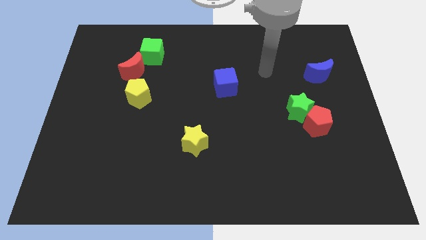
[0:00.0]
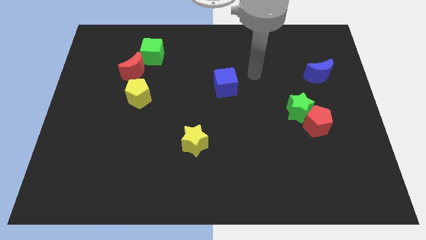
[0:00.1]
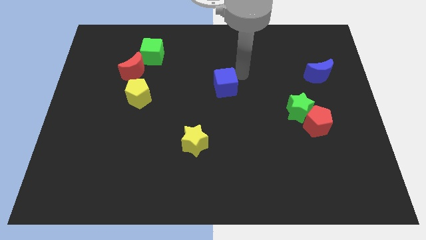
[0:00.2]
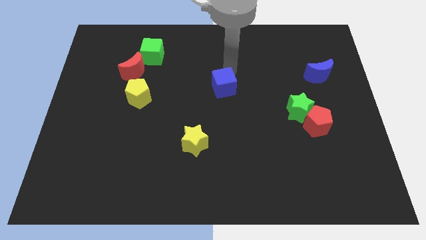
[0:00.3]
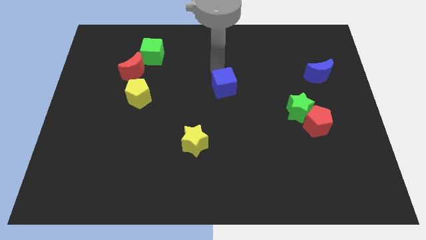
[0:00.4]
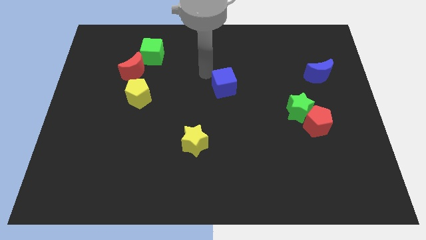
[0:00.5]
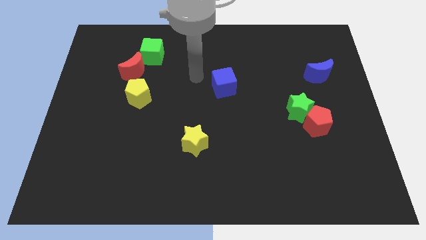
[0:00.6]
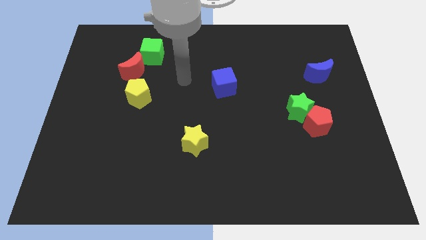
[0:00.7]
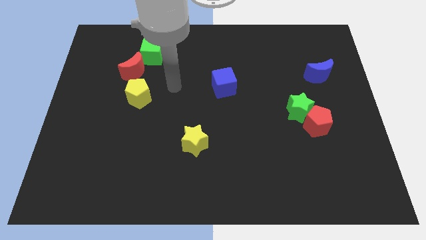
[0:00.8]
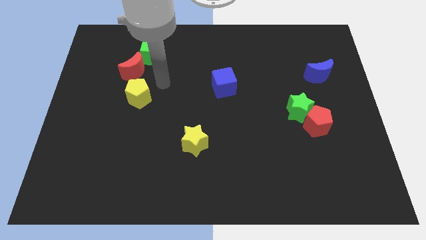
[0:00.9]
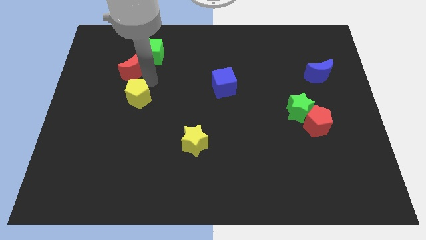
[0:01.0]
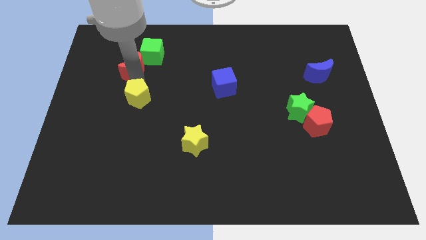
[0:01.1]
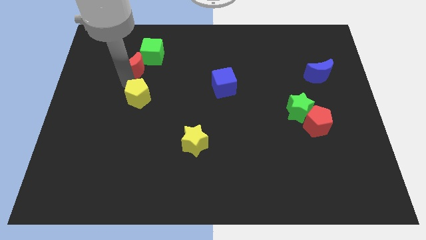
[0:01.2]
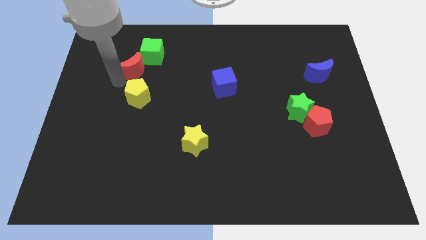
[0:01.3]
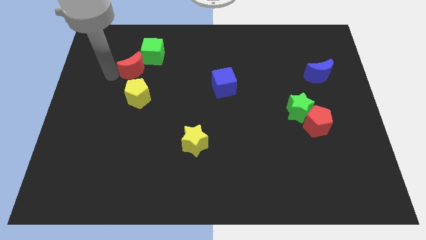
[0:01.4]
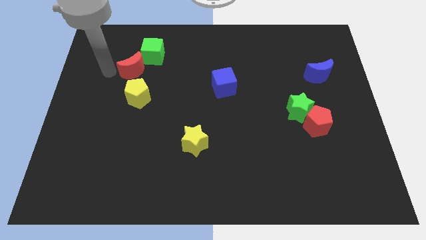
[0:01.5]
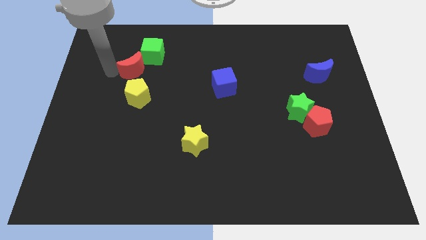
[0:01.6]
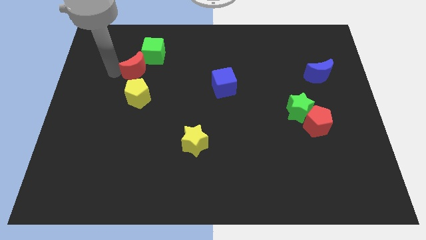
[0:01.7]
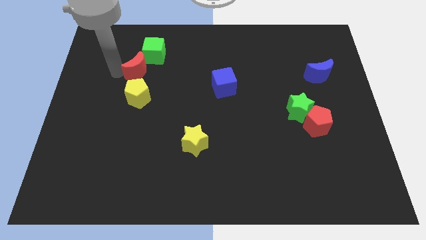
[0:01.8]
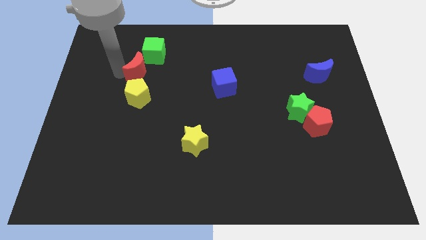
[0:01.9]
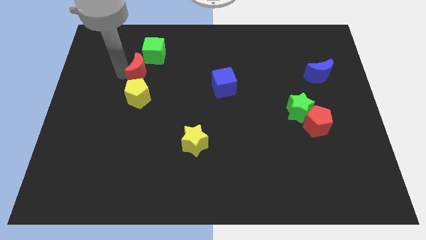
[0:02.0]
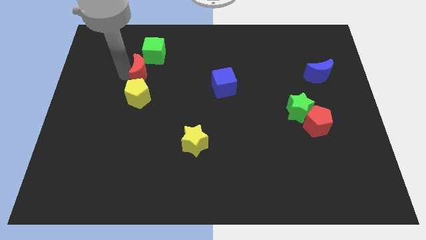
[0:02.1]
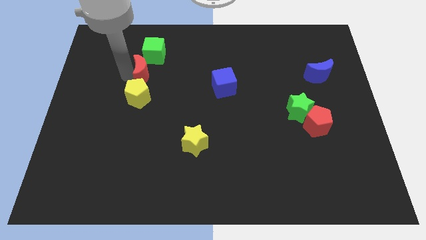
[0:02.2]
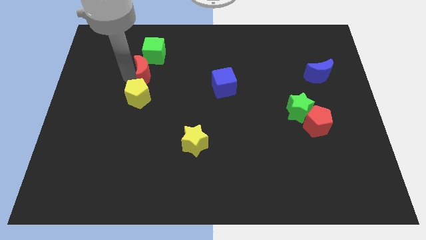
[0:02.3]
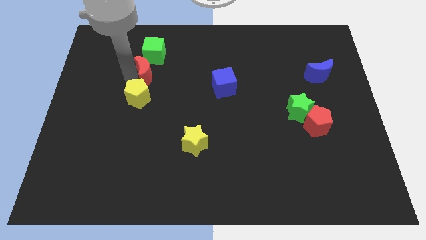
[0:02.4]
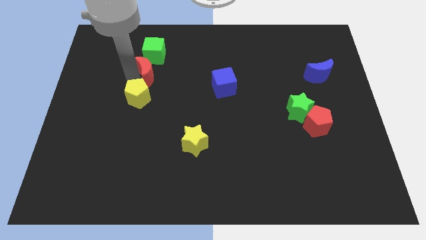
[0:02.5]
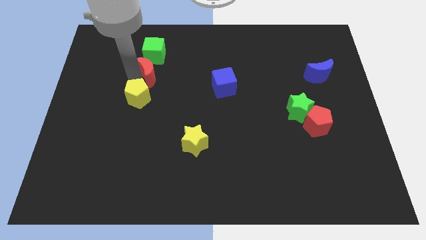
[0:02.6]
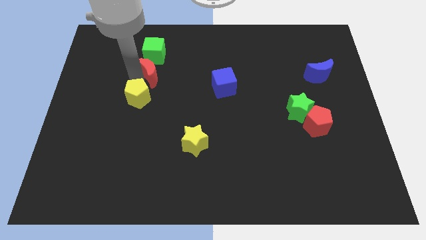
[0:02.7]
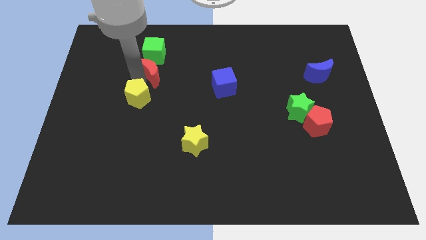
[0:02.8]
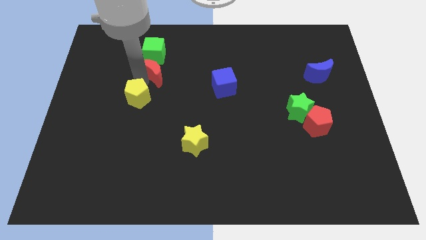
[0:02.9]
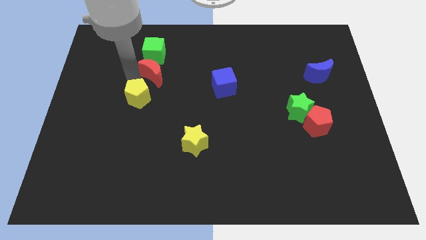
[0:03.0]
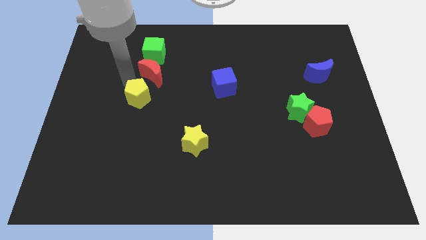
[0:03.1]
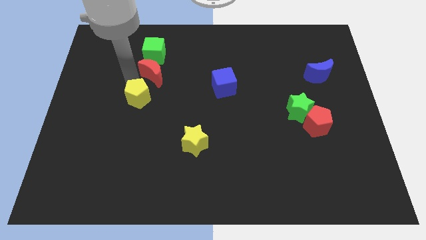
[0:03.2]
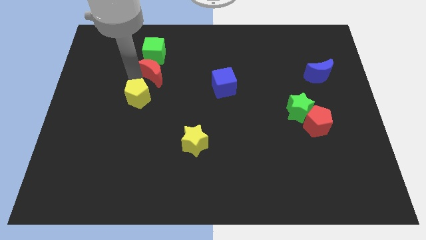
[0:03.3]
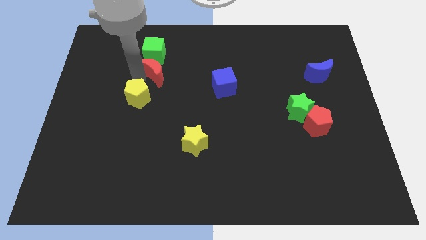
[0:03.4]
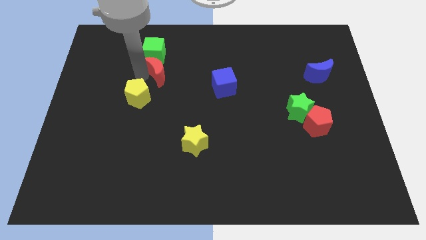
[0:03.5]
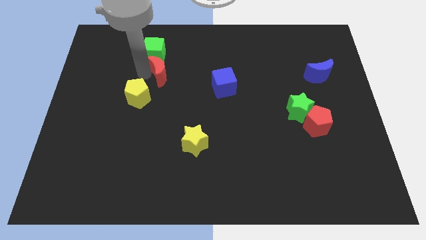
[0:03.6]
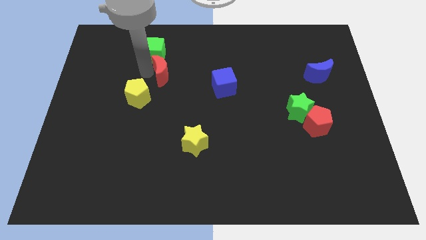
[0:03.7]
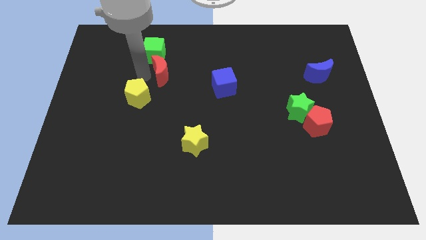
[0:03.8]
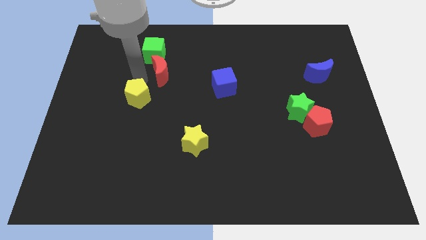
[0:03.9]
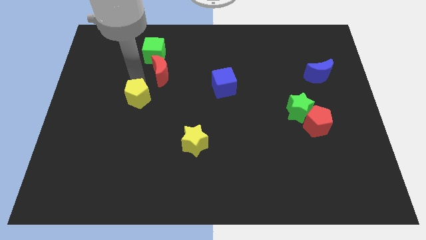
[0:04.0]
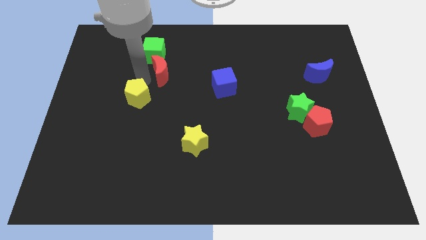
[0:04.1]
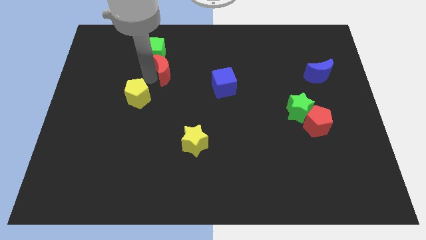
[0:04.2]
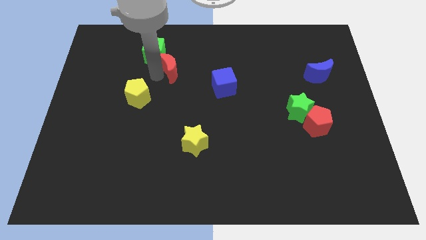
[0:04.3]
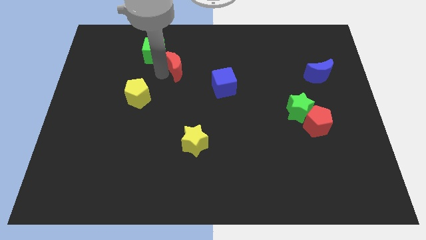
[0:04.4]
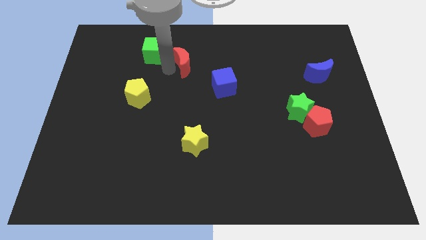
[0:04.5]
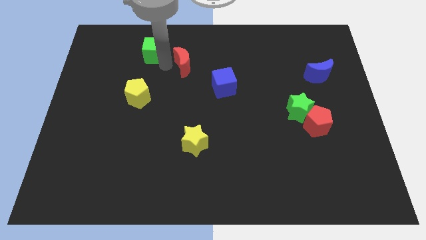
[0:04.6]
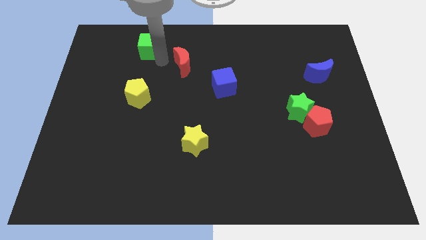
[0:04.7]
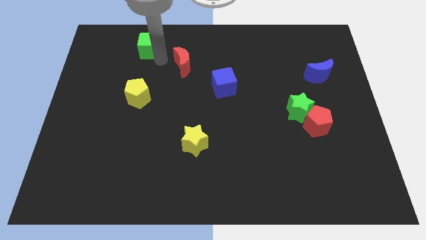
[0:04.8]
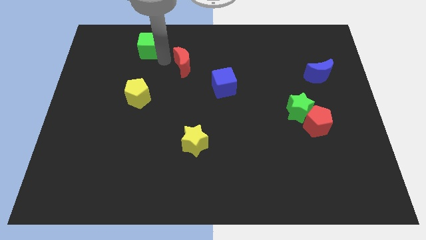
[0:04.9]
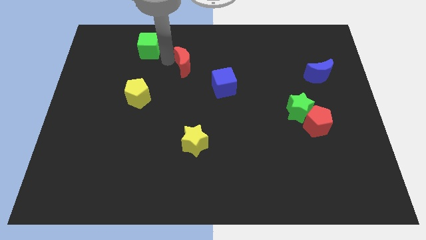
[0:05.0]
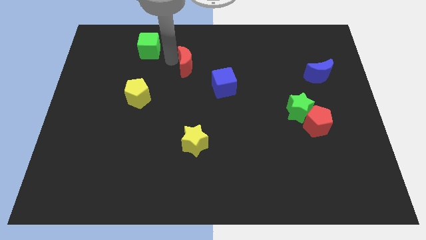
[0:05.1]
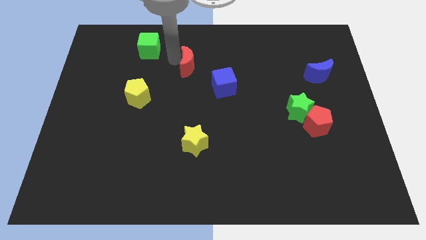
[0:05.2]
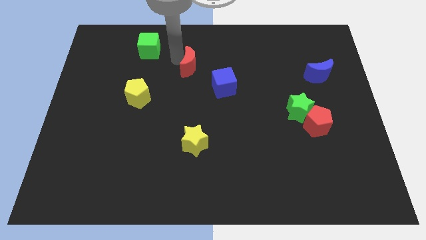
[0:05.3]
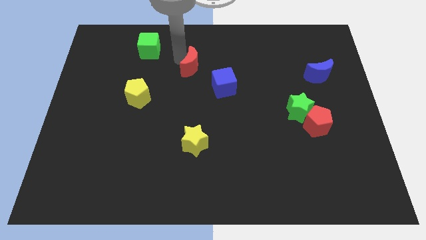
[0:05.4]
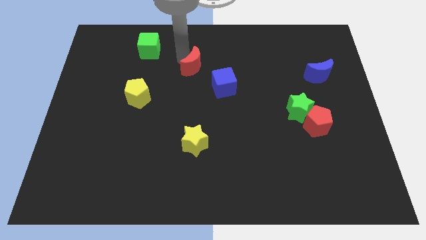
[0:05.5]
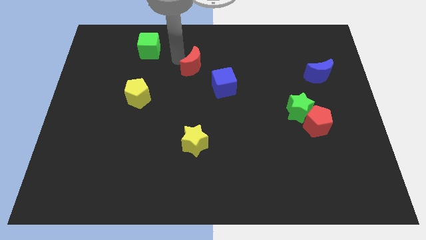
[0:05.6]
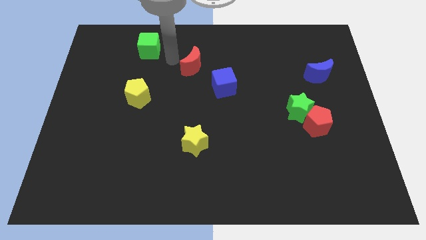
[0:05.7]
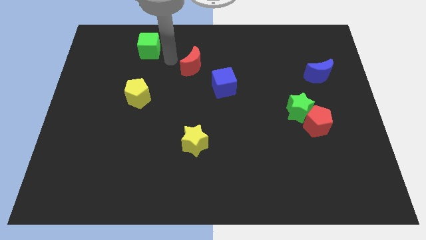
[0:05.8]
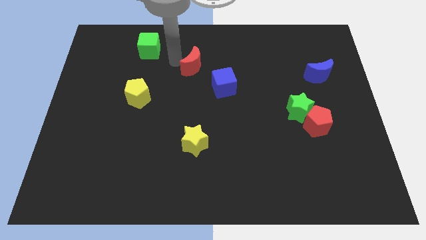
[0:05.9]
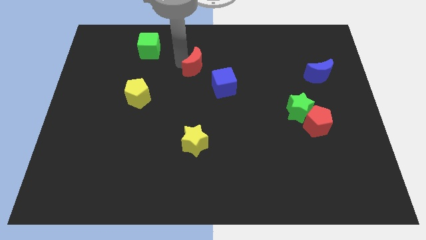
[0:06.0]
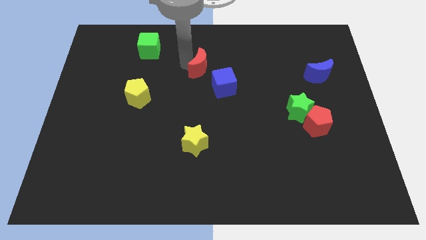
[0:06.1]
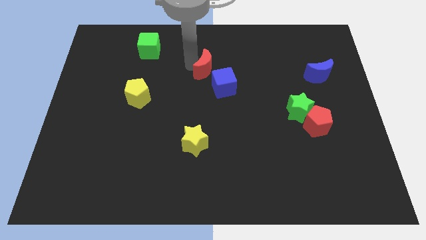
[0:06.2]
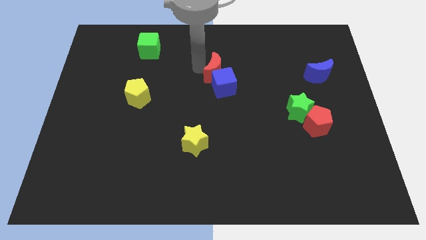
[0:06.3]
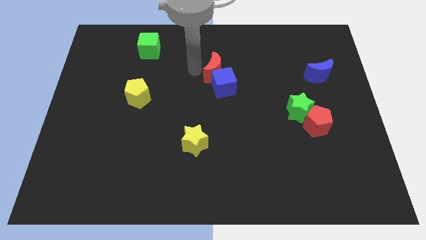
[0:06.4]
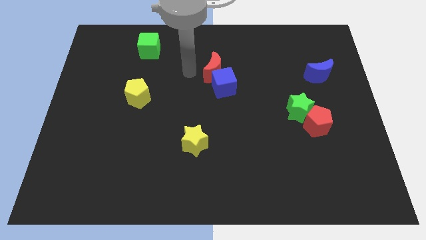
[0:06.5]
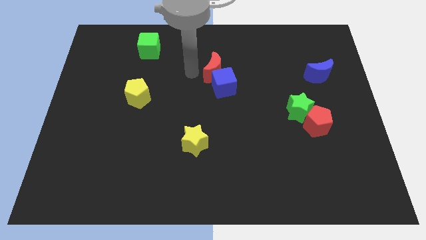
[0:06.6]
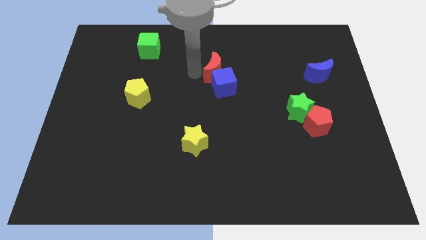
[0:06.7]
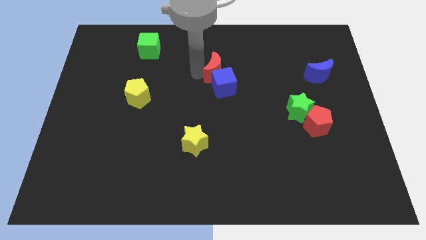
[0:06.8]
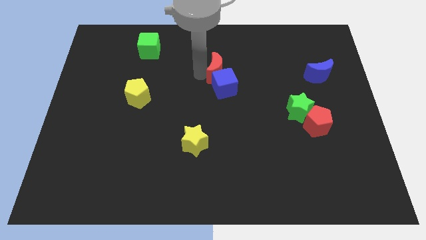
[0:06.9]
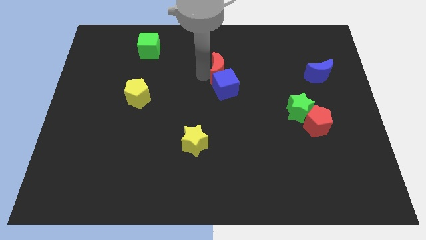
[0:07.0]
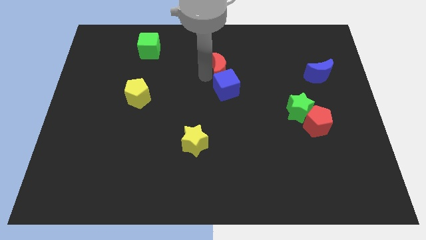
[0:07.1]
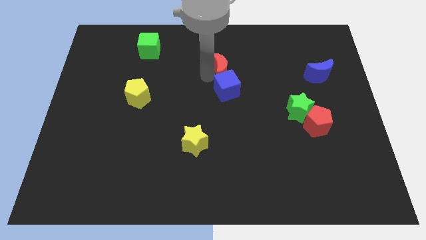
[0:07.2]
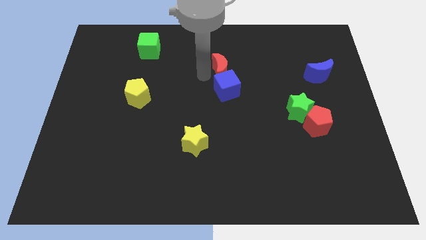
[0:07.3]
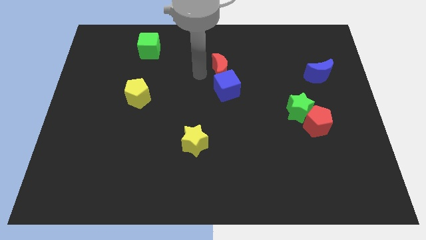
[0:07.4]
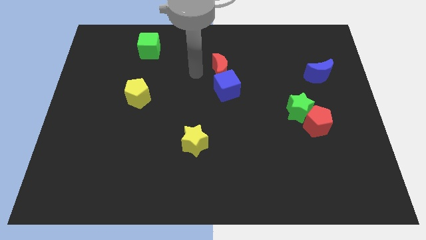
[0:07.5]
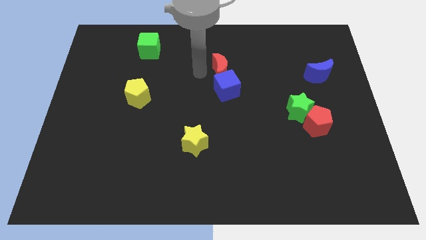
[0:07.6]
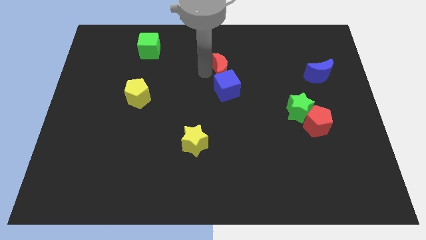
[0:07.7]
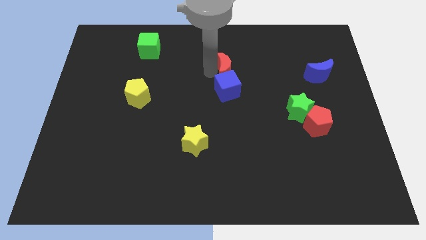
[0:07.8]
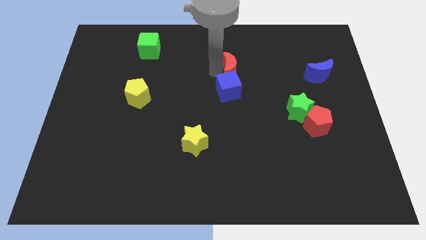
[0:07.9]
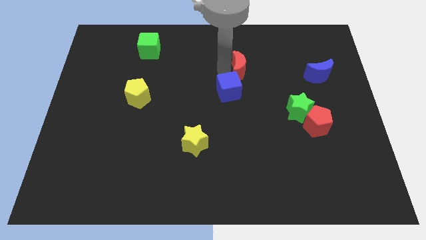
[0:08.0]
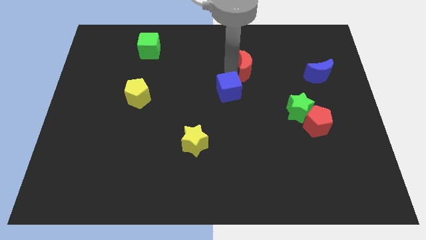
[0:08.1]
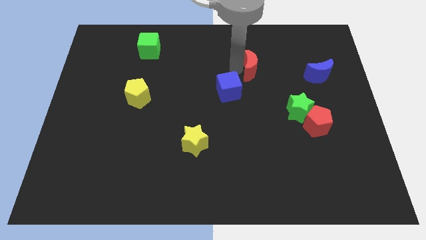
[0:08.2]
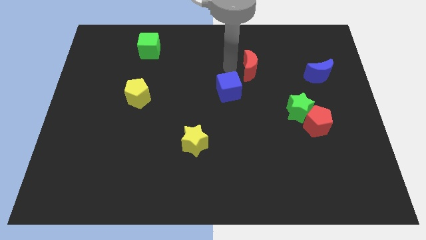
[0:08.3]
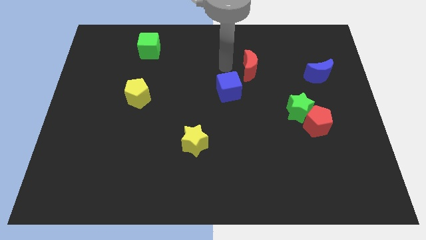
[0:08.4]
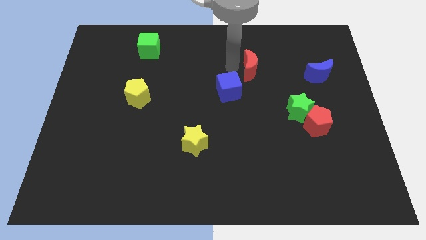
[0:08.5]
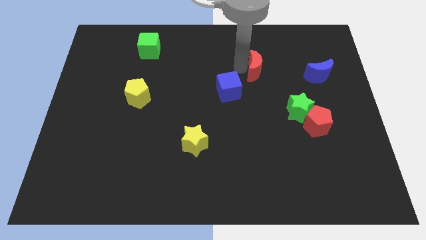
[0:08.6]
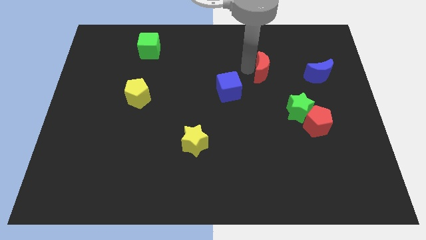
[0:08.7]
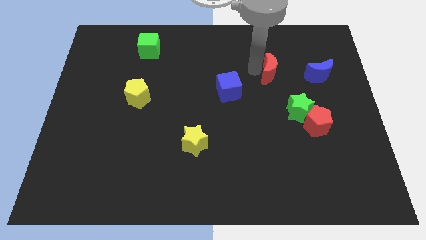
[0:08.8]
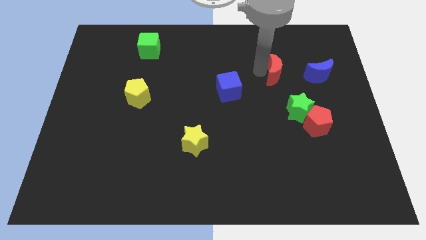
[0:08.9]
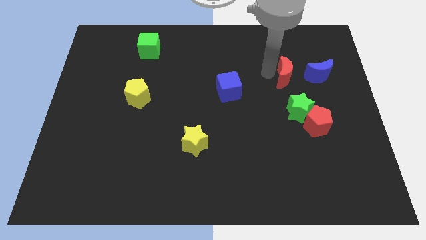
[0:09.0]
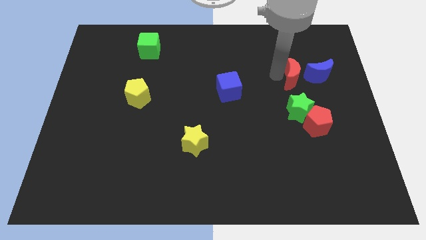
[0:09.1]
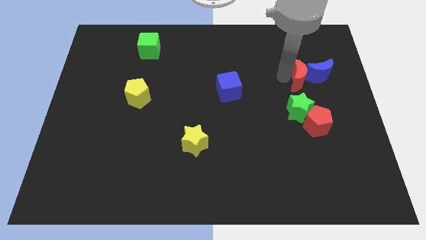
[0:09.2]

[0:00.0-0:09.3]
push the red moon close to the blue moon
